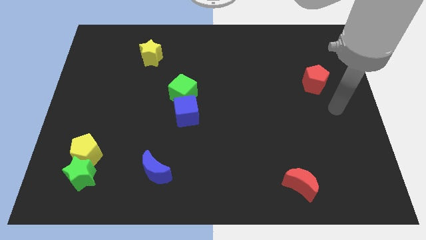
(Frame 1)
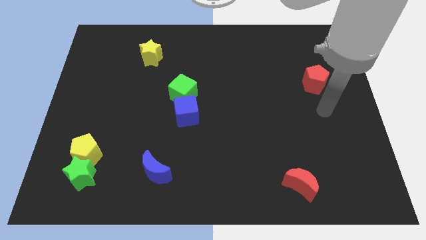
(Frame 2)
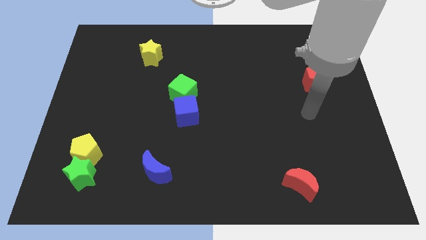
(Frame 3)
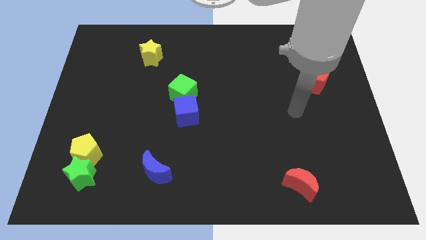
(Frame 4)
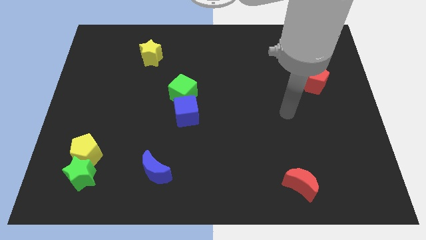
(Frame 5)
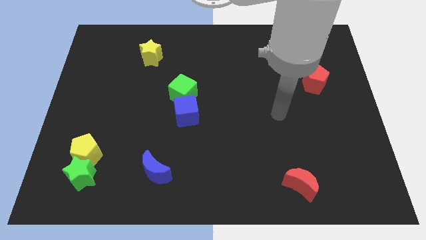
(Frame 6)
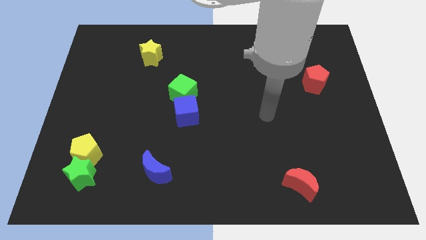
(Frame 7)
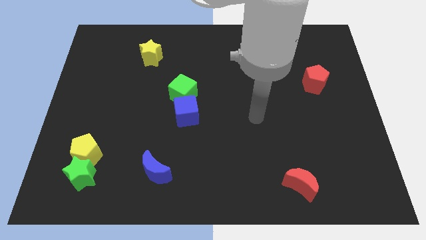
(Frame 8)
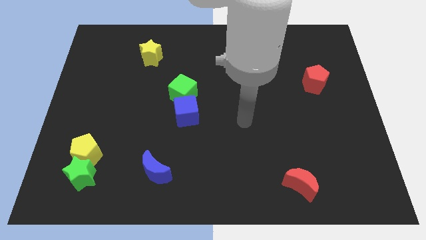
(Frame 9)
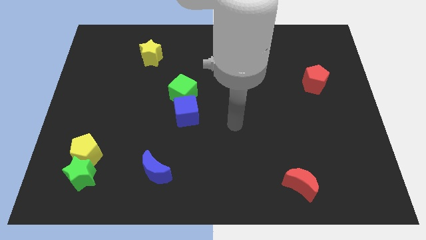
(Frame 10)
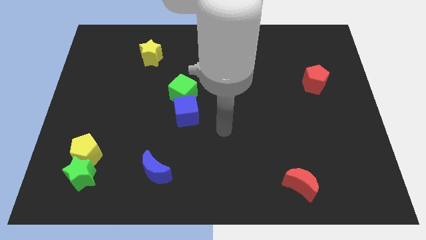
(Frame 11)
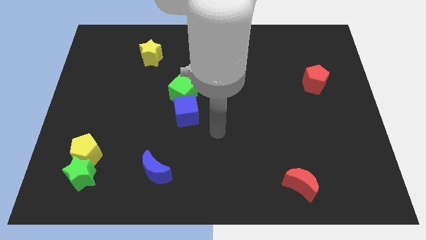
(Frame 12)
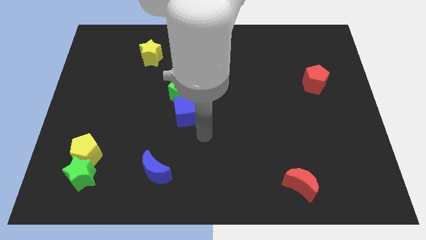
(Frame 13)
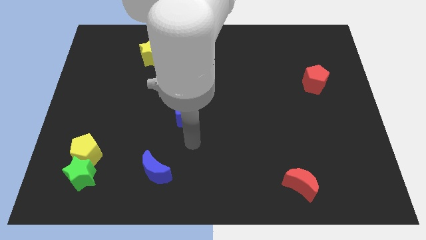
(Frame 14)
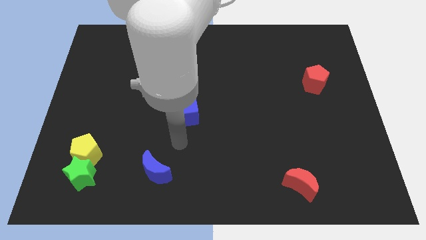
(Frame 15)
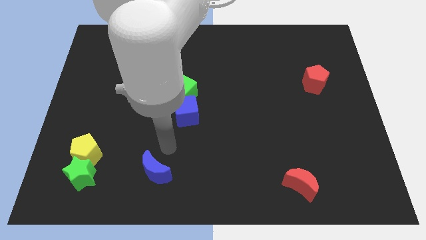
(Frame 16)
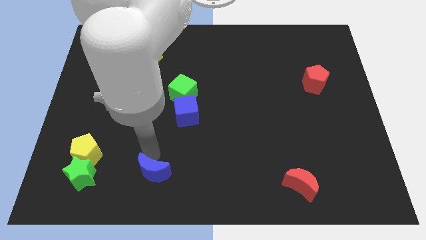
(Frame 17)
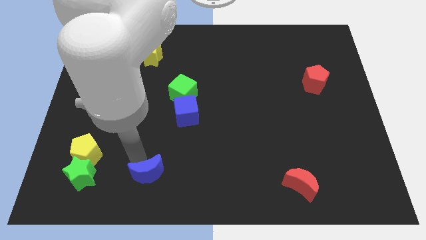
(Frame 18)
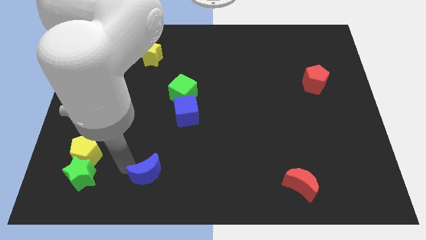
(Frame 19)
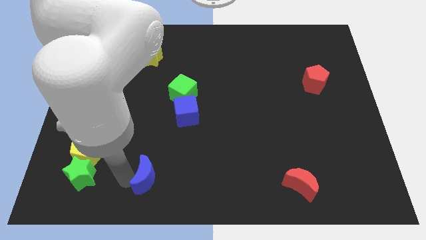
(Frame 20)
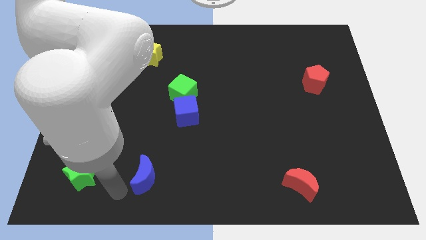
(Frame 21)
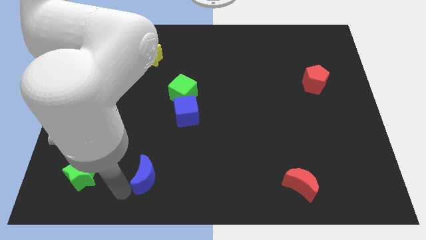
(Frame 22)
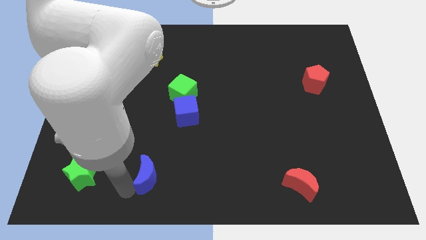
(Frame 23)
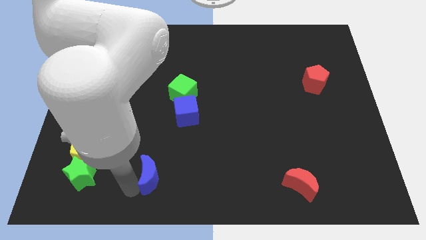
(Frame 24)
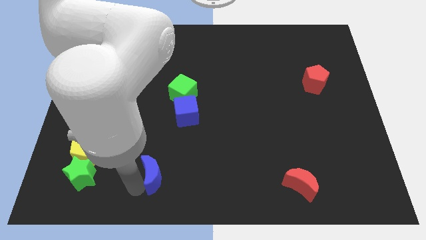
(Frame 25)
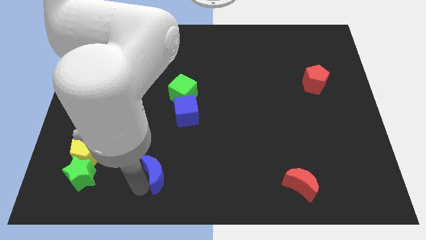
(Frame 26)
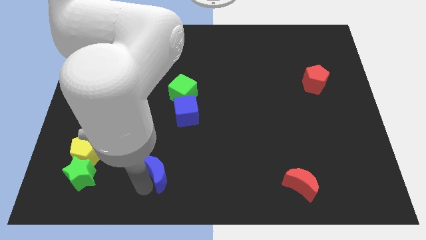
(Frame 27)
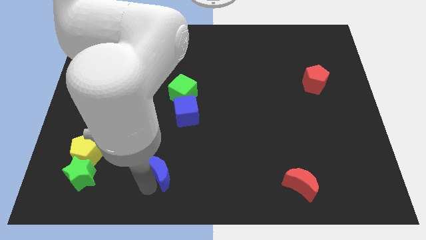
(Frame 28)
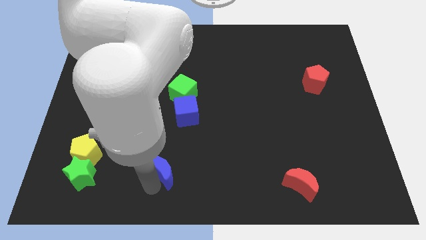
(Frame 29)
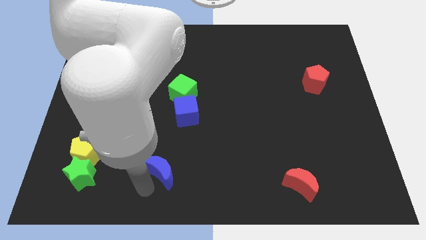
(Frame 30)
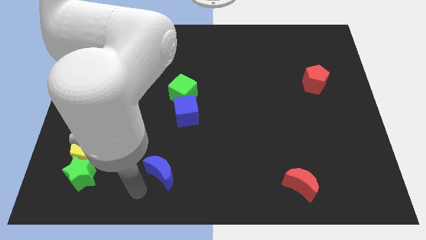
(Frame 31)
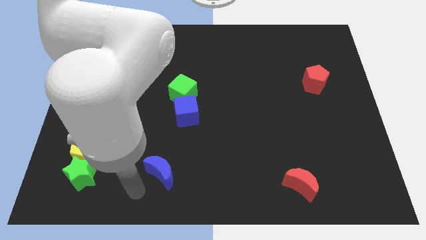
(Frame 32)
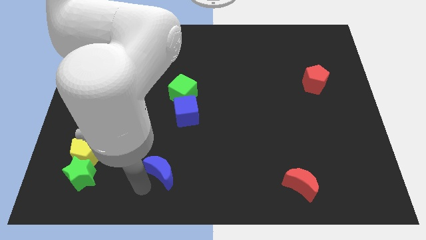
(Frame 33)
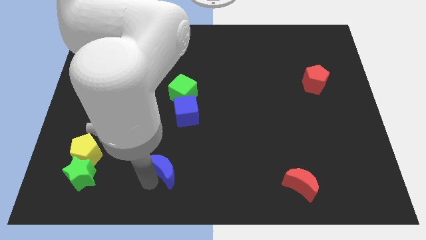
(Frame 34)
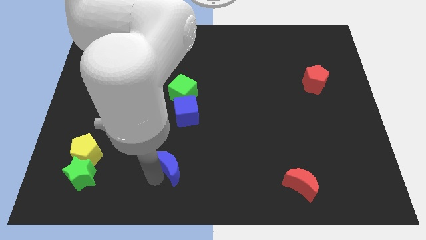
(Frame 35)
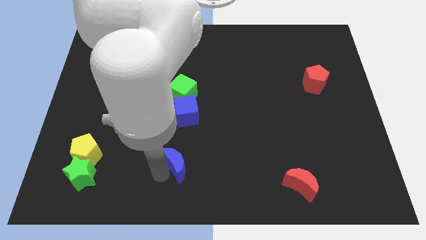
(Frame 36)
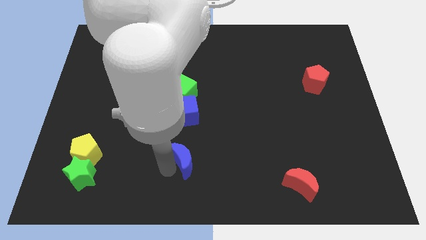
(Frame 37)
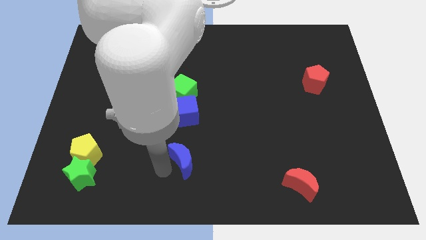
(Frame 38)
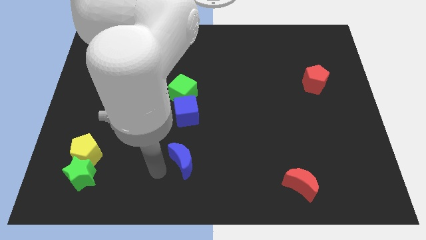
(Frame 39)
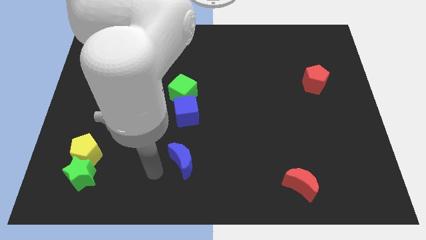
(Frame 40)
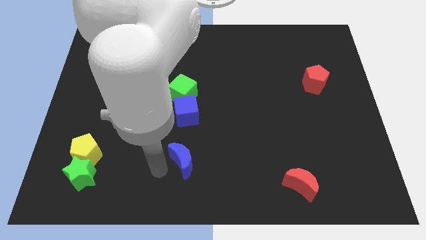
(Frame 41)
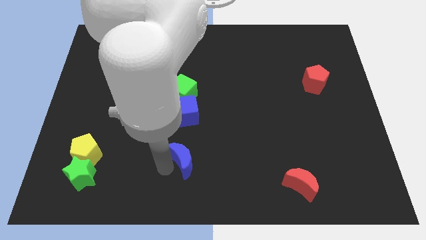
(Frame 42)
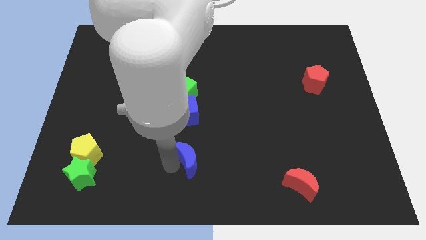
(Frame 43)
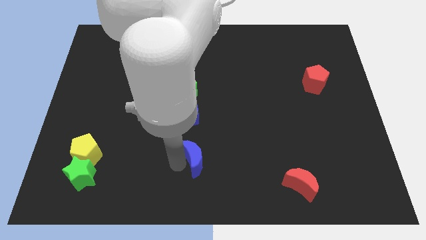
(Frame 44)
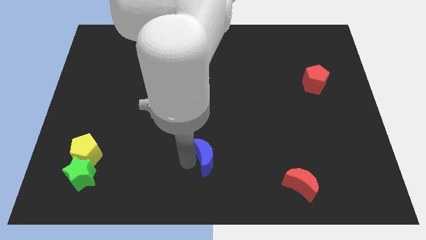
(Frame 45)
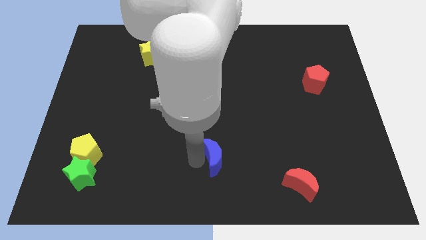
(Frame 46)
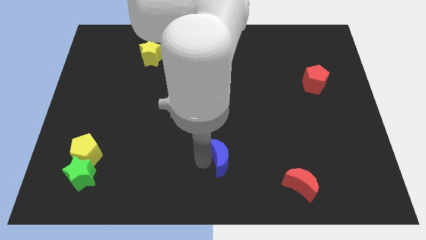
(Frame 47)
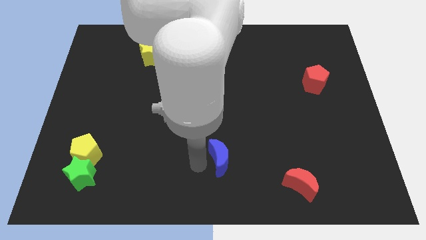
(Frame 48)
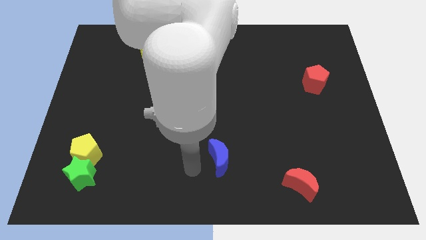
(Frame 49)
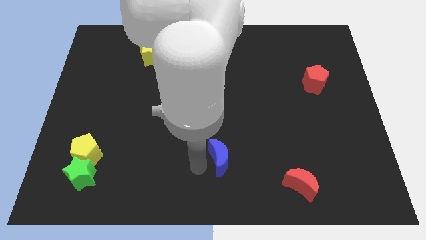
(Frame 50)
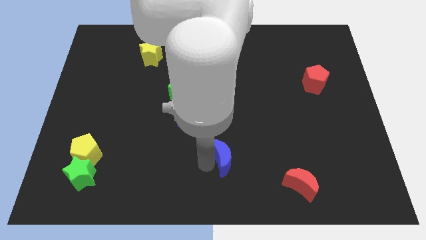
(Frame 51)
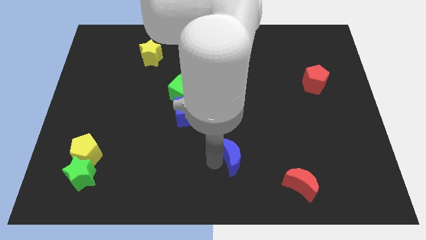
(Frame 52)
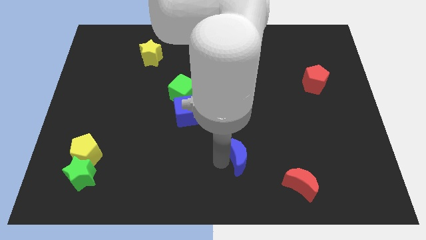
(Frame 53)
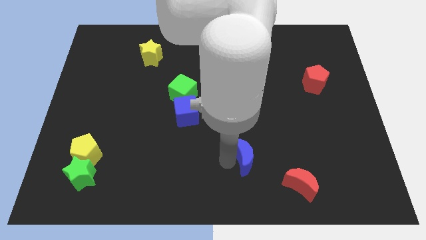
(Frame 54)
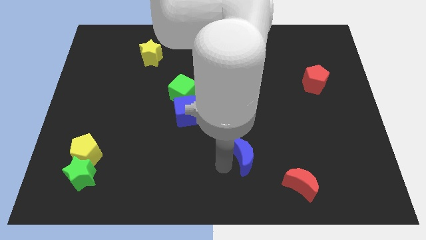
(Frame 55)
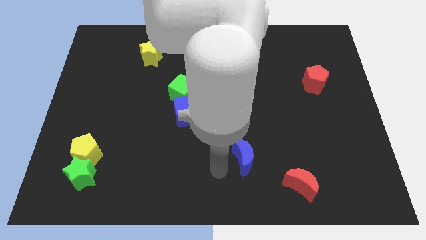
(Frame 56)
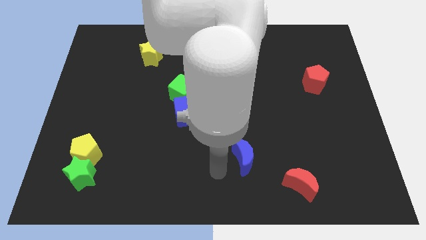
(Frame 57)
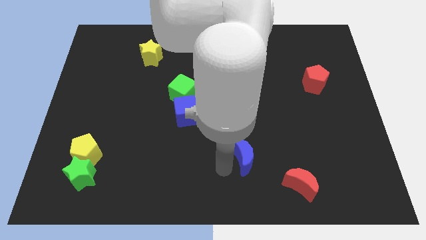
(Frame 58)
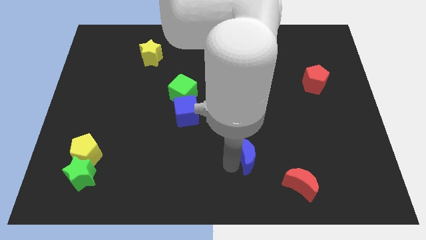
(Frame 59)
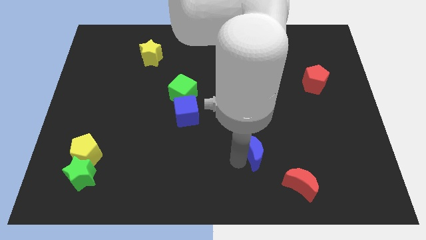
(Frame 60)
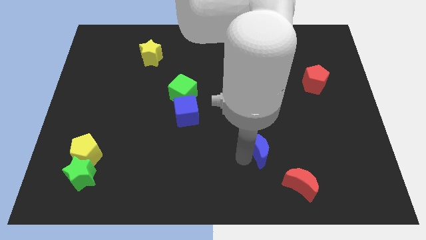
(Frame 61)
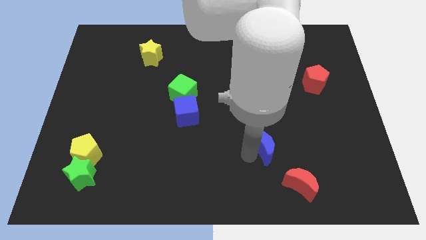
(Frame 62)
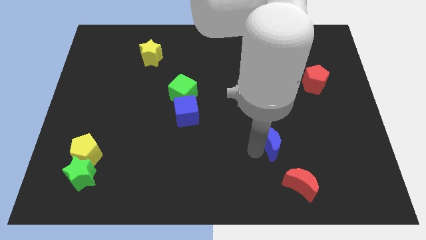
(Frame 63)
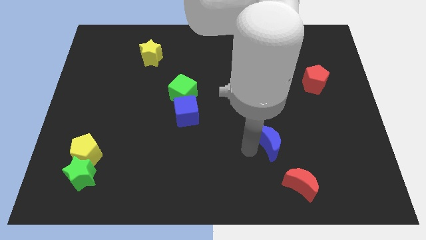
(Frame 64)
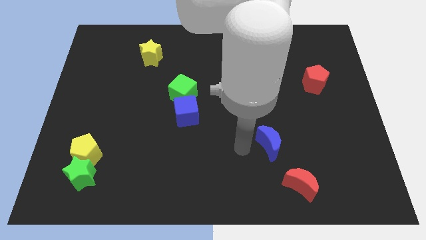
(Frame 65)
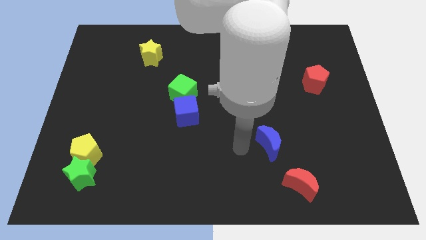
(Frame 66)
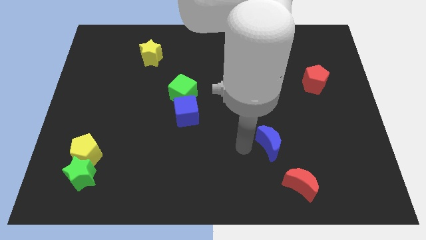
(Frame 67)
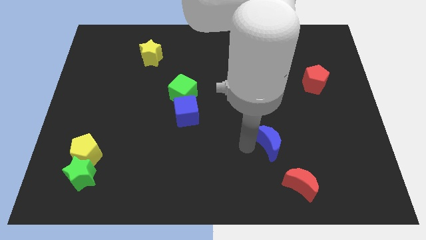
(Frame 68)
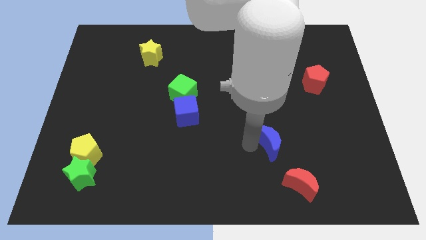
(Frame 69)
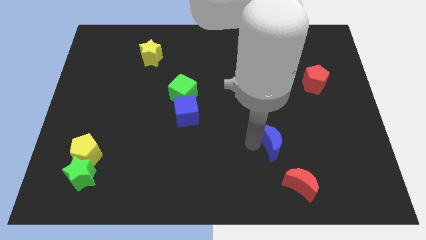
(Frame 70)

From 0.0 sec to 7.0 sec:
slide the blue moon above the red moon

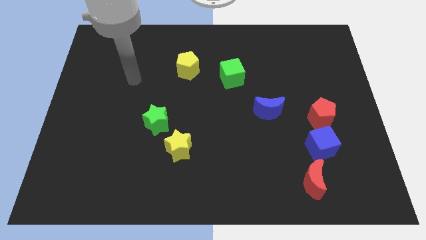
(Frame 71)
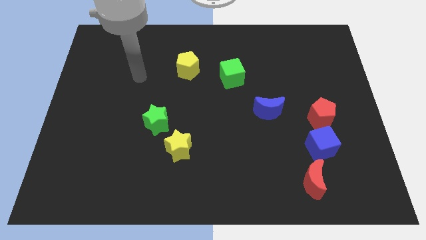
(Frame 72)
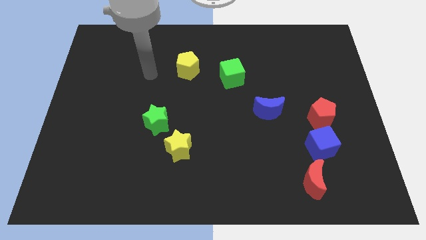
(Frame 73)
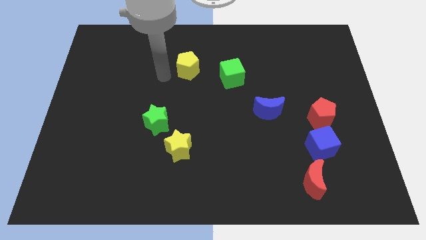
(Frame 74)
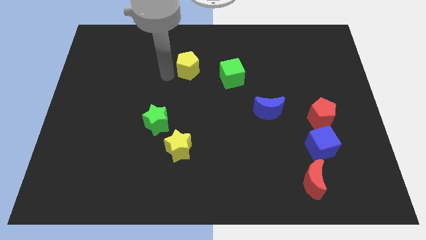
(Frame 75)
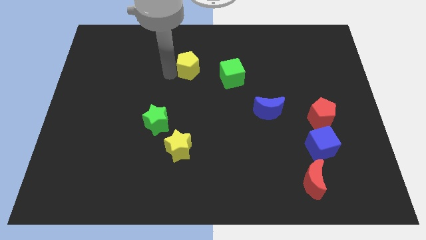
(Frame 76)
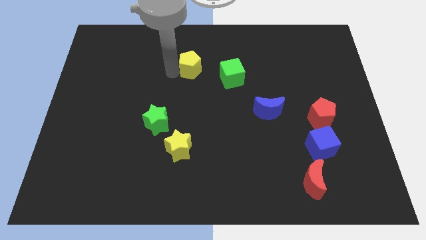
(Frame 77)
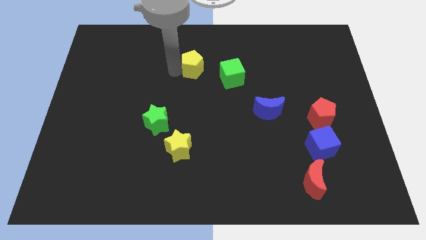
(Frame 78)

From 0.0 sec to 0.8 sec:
slide the yellow pentagon to the top left side of the green cube
